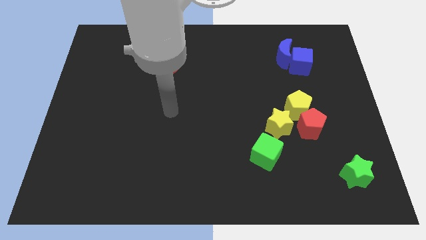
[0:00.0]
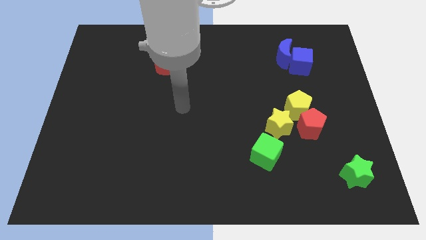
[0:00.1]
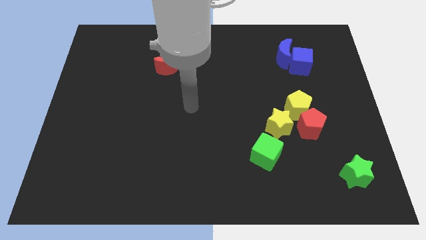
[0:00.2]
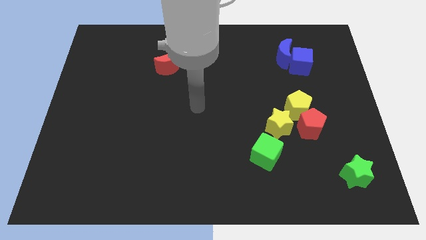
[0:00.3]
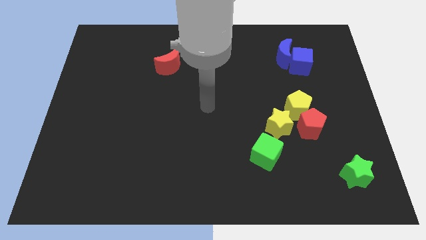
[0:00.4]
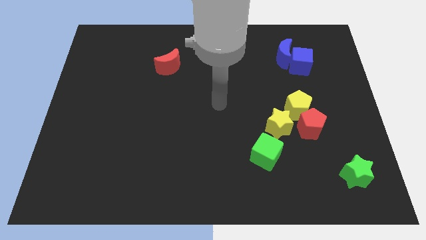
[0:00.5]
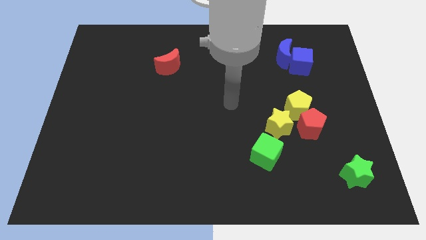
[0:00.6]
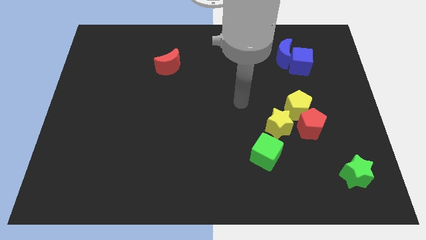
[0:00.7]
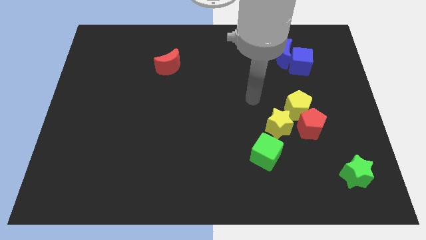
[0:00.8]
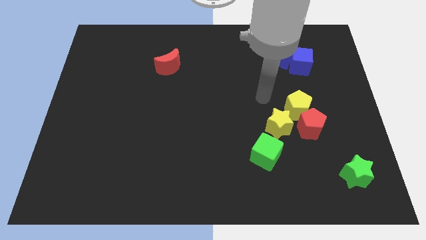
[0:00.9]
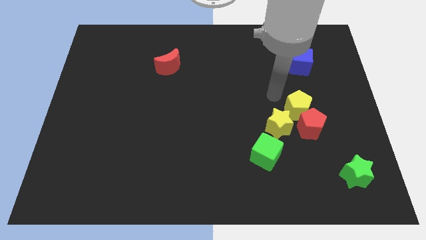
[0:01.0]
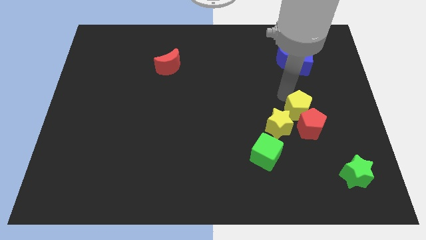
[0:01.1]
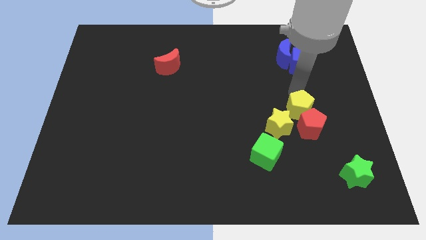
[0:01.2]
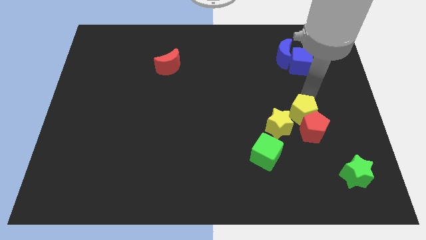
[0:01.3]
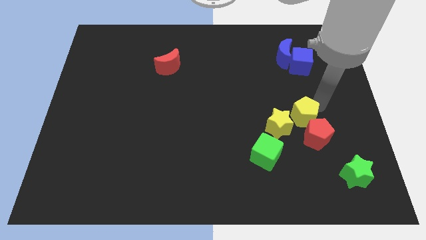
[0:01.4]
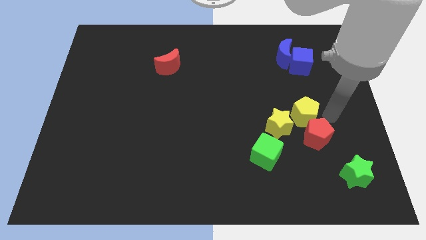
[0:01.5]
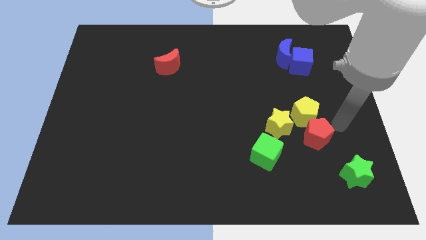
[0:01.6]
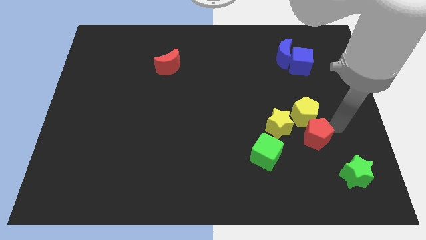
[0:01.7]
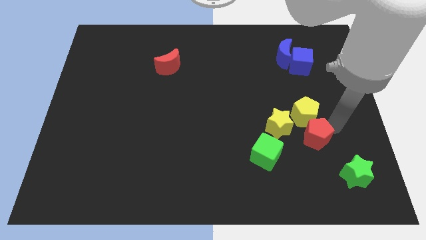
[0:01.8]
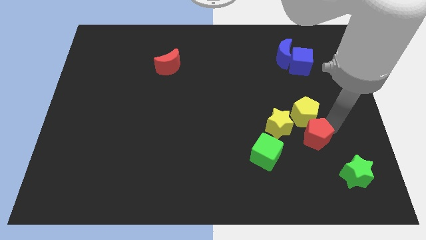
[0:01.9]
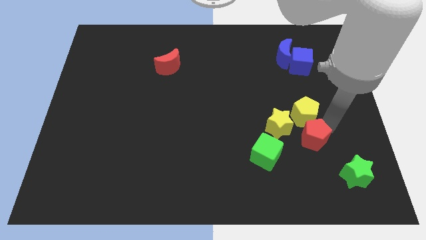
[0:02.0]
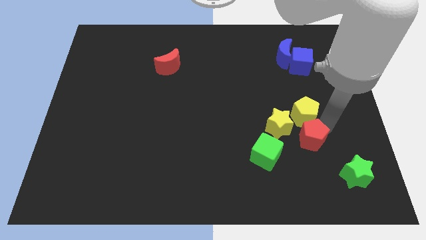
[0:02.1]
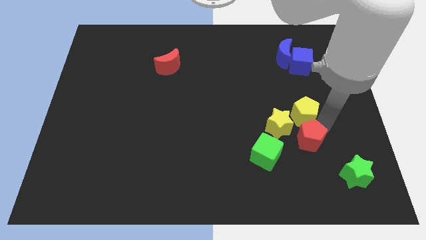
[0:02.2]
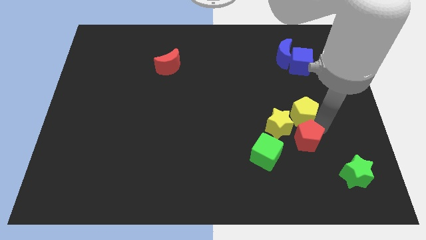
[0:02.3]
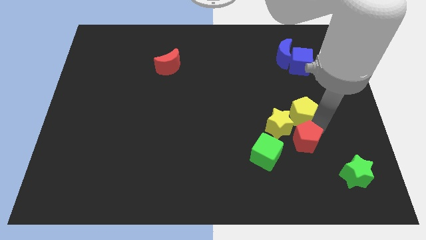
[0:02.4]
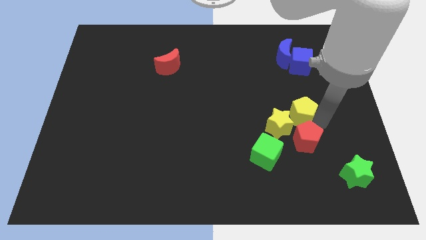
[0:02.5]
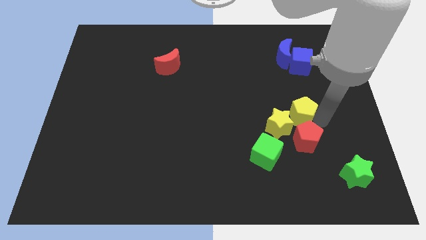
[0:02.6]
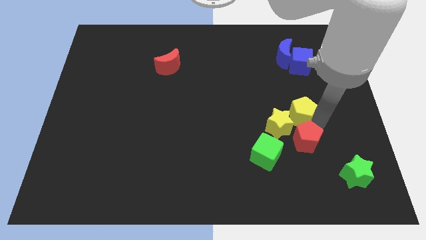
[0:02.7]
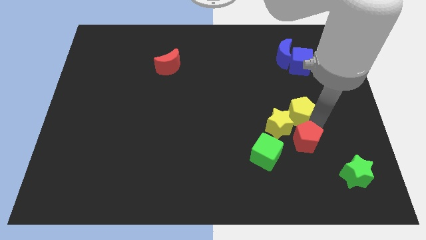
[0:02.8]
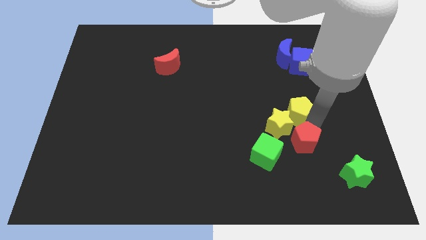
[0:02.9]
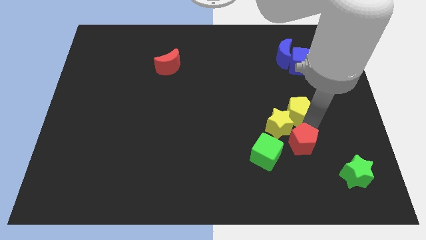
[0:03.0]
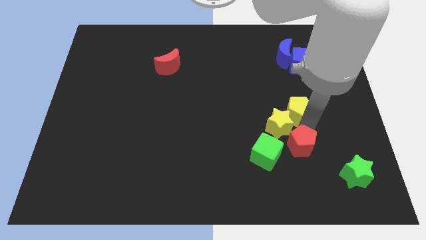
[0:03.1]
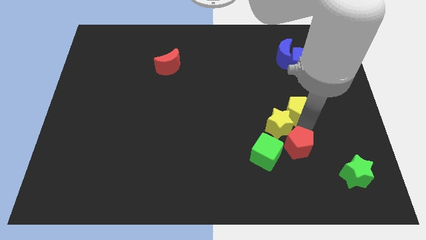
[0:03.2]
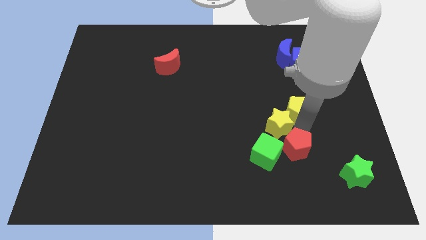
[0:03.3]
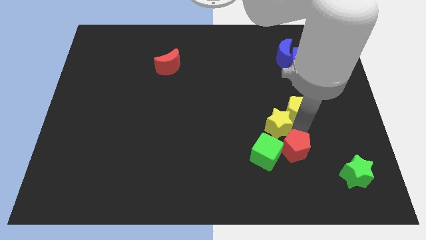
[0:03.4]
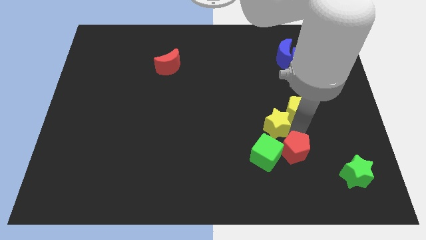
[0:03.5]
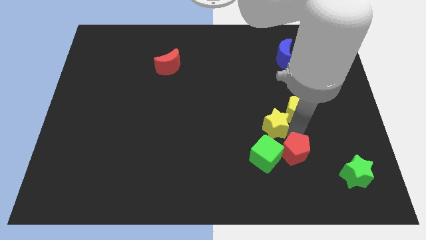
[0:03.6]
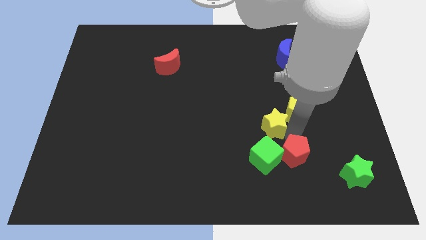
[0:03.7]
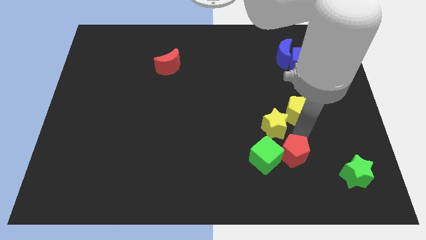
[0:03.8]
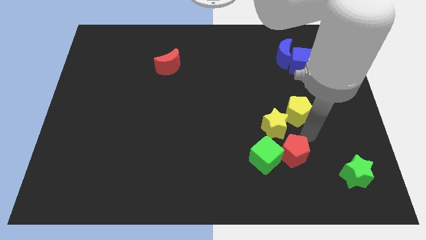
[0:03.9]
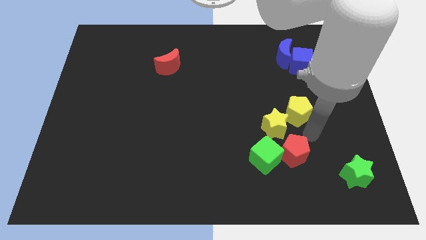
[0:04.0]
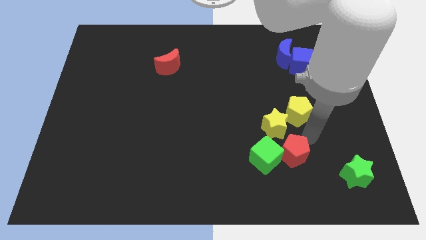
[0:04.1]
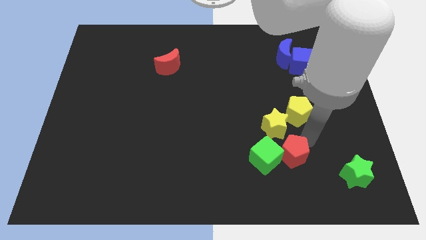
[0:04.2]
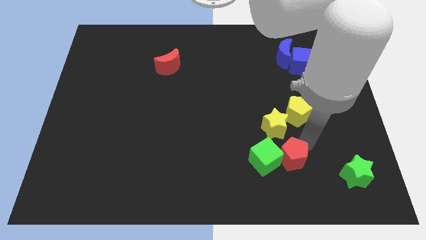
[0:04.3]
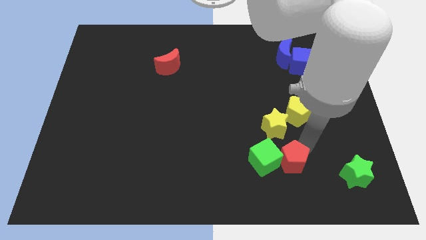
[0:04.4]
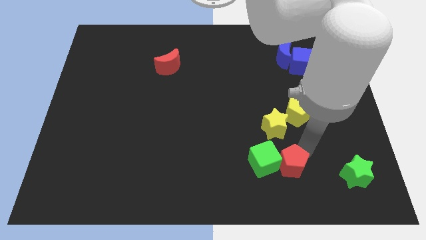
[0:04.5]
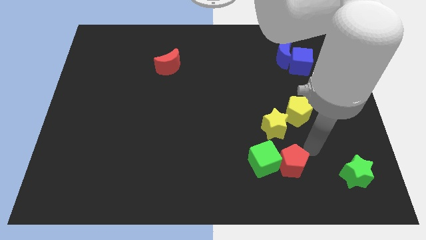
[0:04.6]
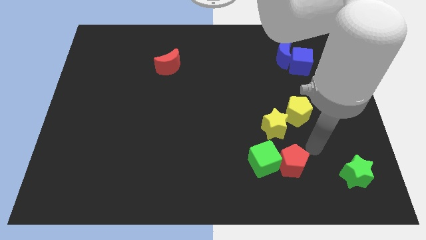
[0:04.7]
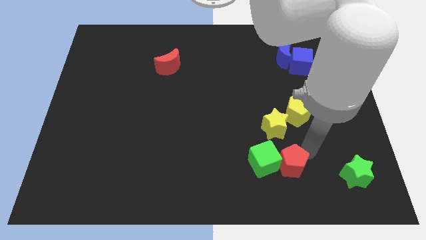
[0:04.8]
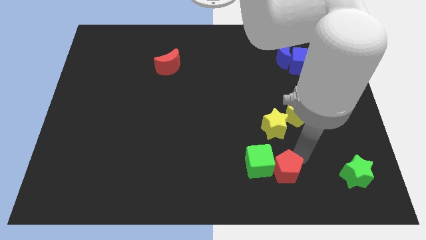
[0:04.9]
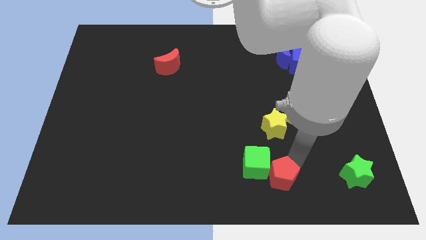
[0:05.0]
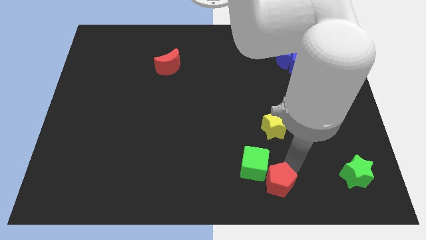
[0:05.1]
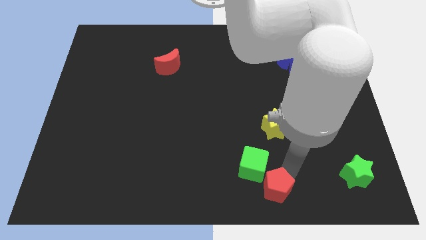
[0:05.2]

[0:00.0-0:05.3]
put the red pentagon to the bottom side

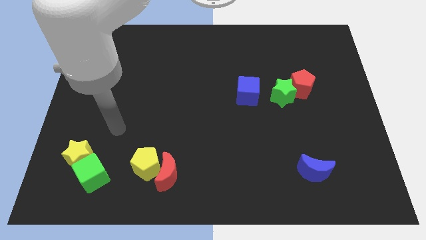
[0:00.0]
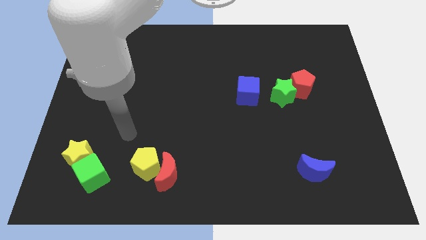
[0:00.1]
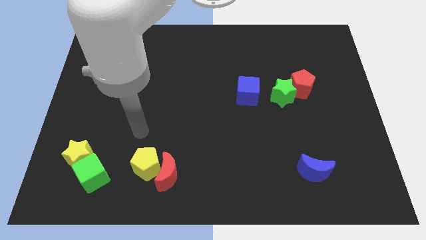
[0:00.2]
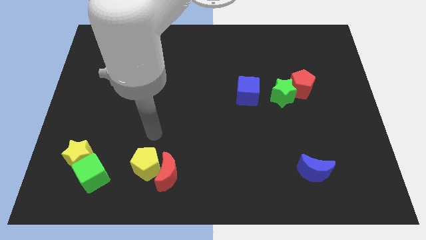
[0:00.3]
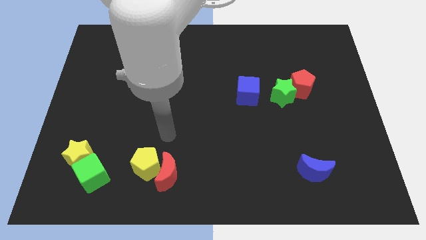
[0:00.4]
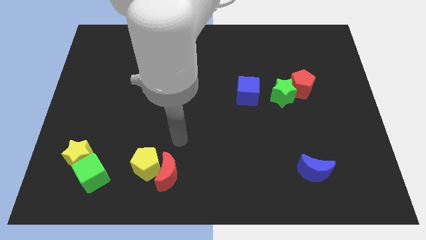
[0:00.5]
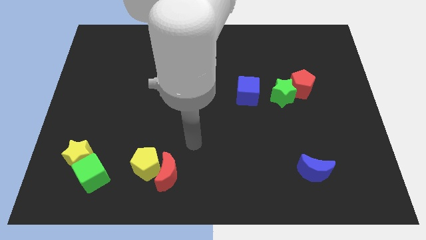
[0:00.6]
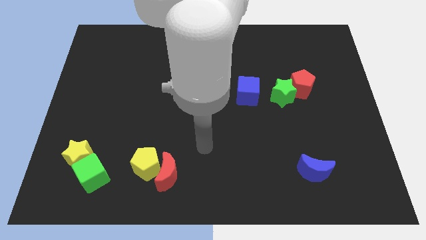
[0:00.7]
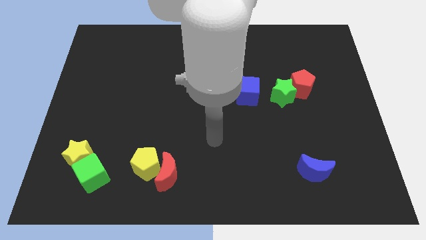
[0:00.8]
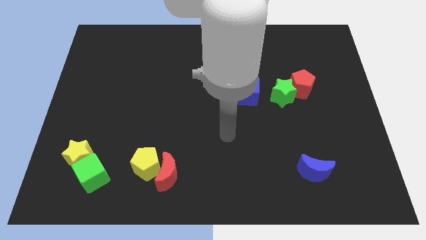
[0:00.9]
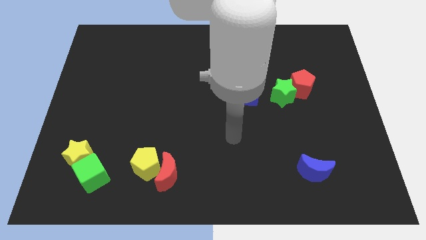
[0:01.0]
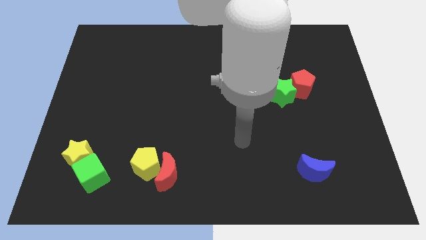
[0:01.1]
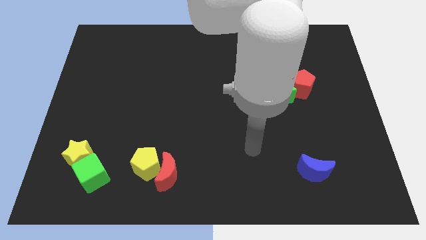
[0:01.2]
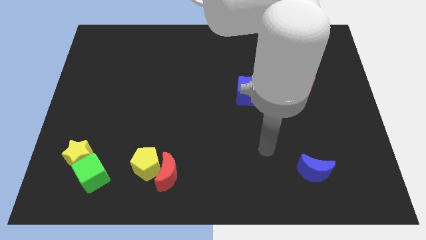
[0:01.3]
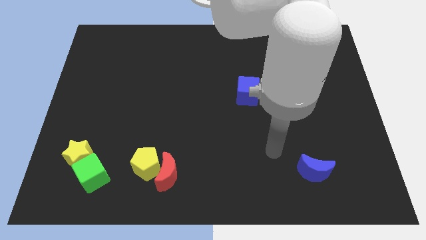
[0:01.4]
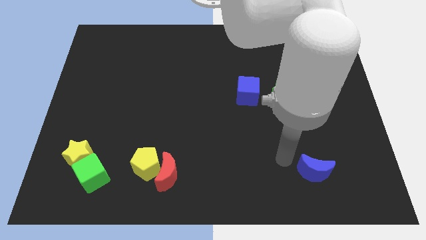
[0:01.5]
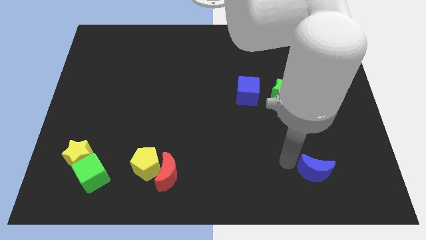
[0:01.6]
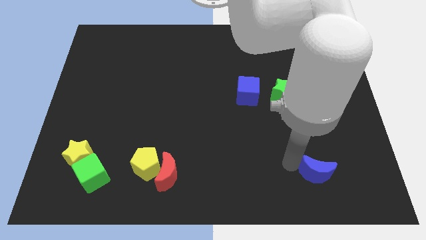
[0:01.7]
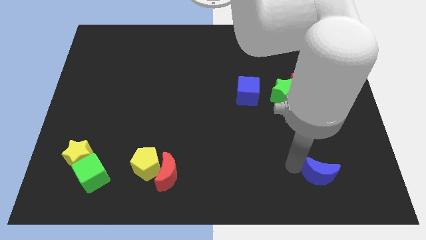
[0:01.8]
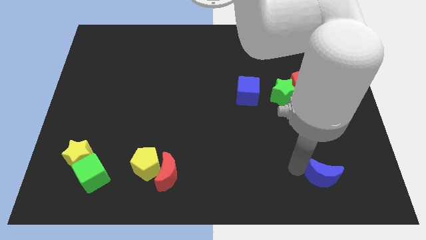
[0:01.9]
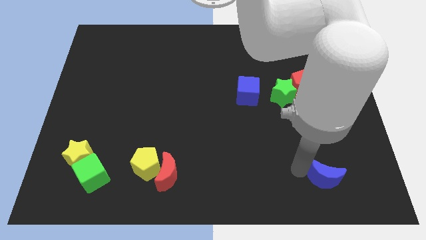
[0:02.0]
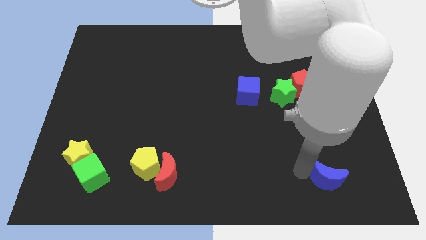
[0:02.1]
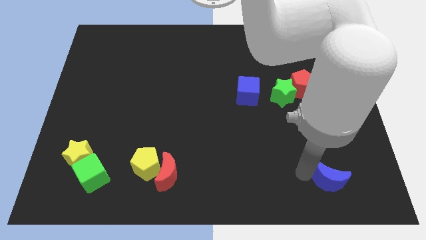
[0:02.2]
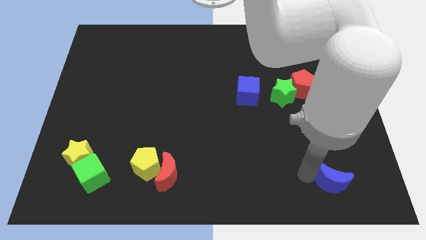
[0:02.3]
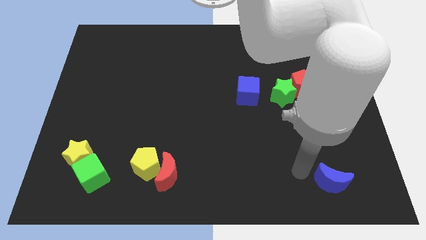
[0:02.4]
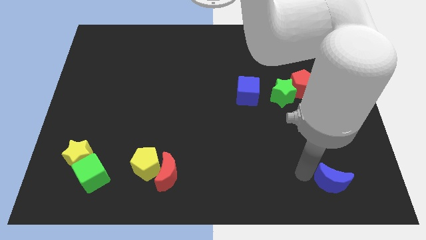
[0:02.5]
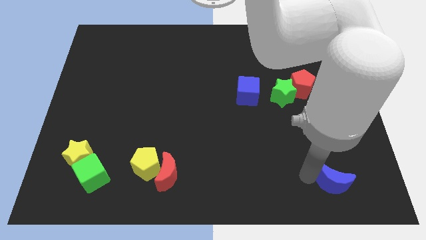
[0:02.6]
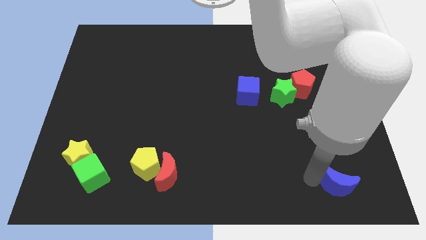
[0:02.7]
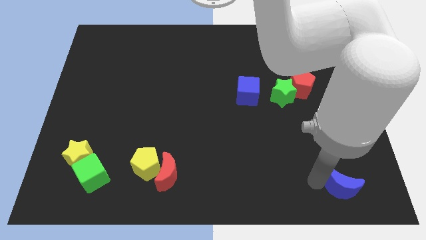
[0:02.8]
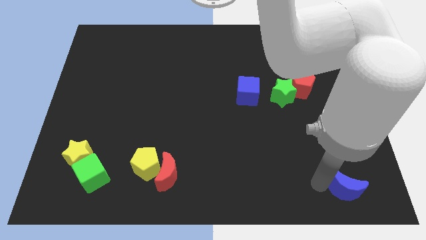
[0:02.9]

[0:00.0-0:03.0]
put the blue moon to the bottom right corner
